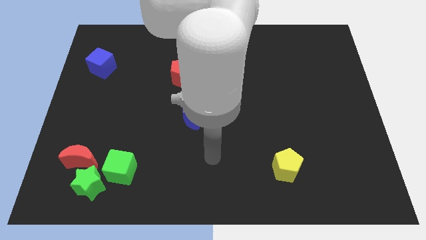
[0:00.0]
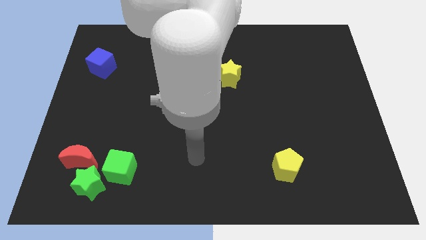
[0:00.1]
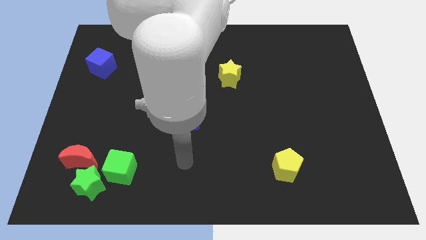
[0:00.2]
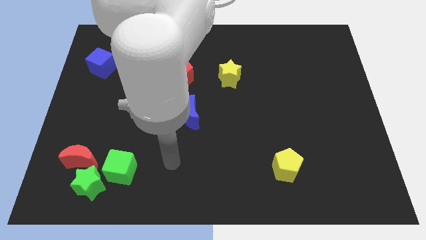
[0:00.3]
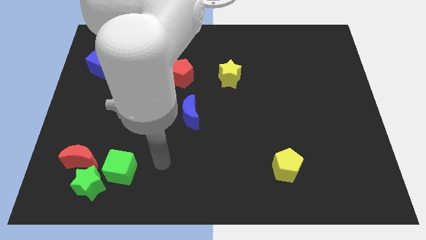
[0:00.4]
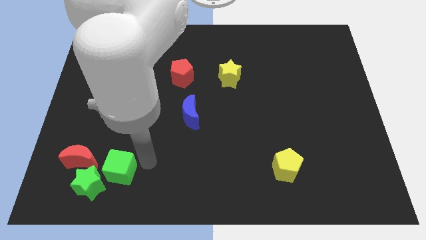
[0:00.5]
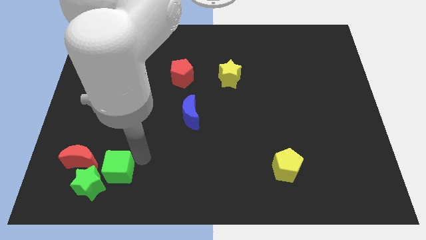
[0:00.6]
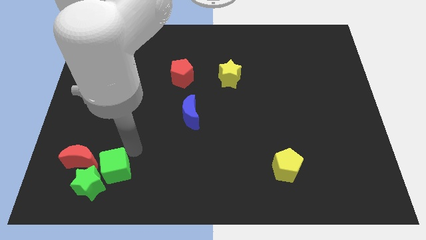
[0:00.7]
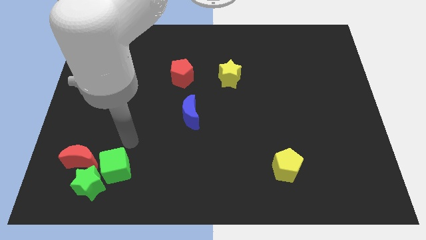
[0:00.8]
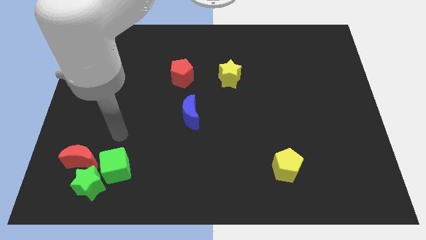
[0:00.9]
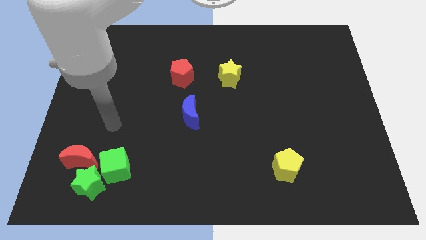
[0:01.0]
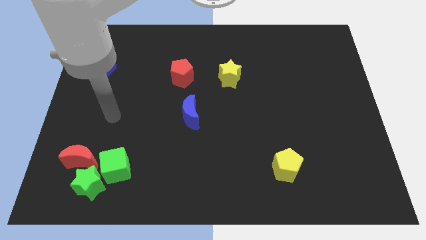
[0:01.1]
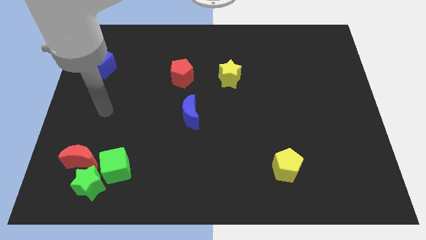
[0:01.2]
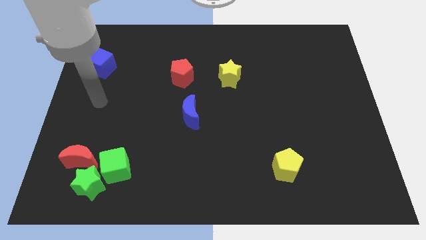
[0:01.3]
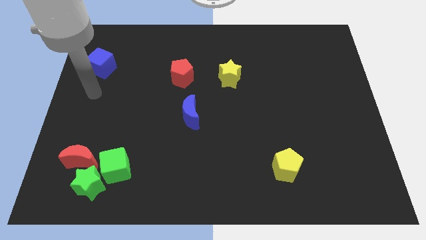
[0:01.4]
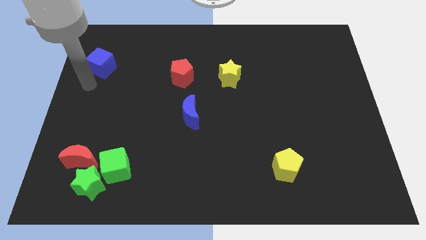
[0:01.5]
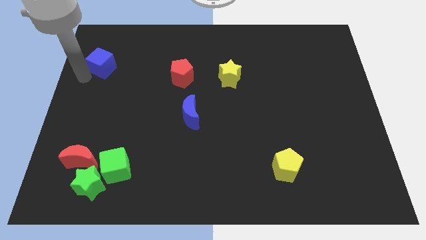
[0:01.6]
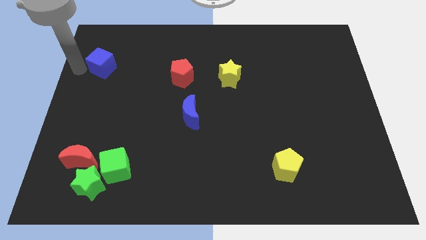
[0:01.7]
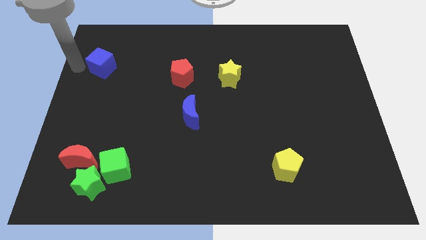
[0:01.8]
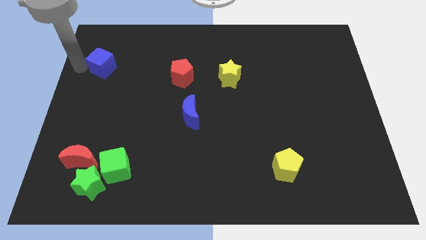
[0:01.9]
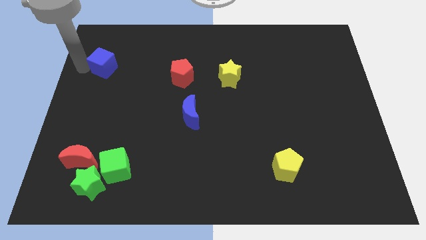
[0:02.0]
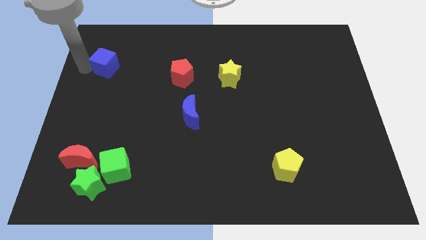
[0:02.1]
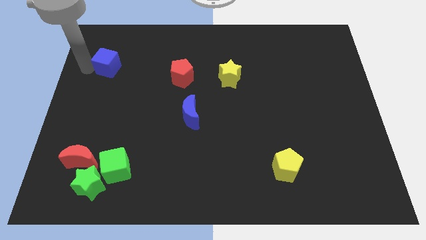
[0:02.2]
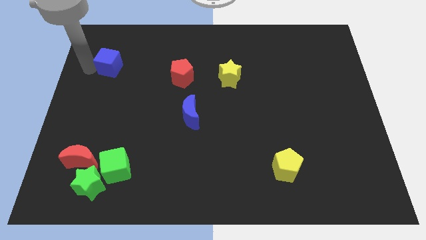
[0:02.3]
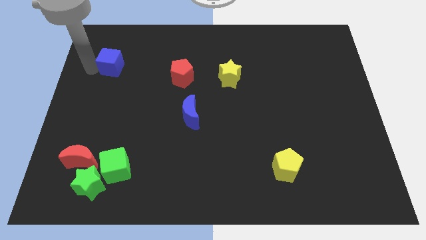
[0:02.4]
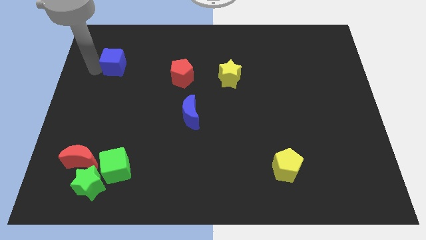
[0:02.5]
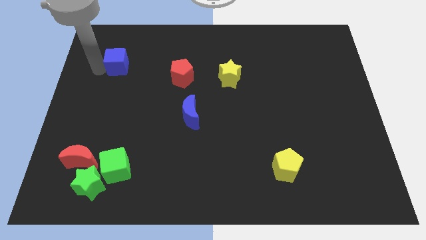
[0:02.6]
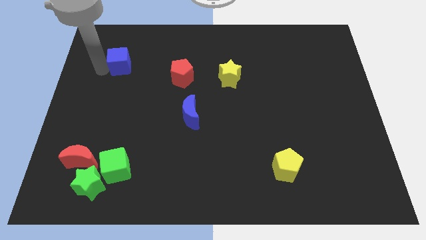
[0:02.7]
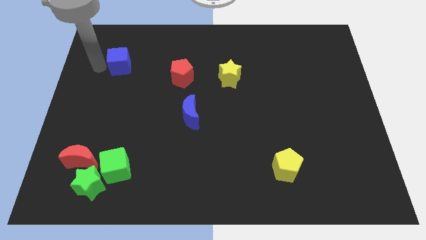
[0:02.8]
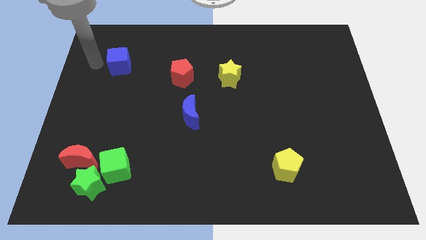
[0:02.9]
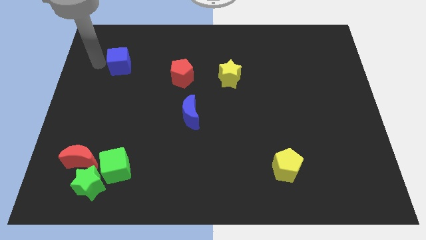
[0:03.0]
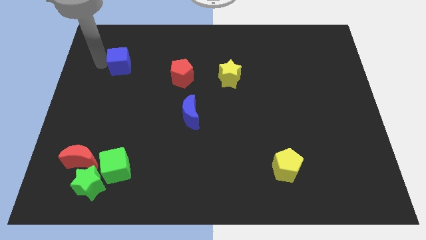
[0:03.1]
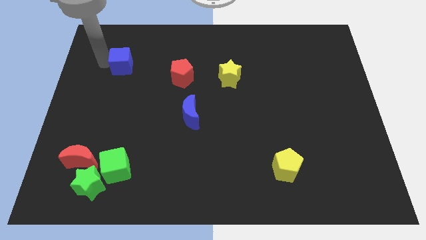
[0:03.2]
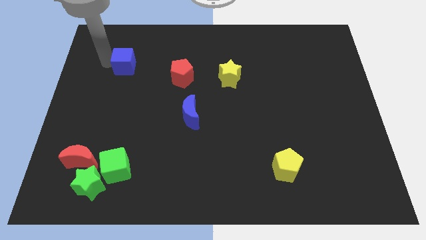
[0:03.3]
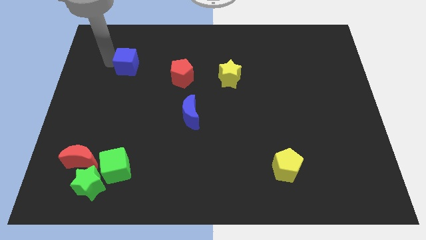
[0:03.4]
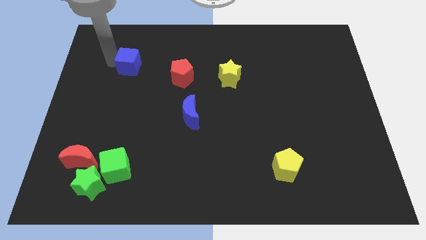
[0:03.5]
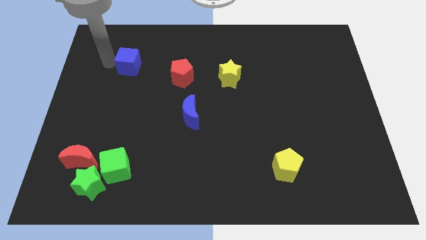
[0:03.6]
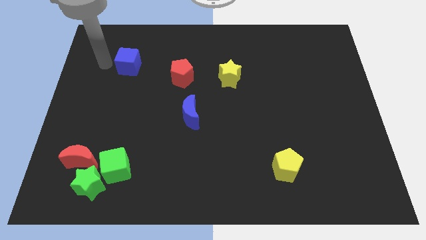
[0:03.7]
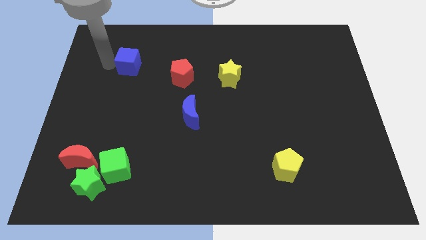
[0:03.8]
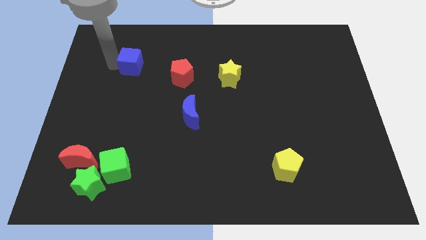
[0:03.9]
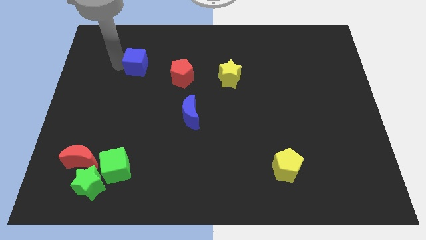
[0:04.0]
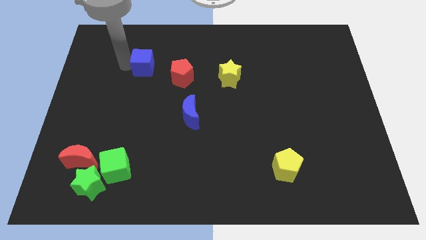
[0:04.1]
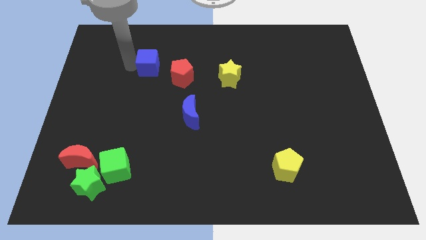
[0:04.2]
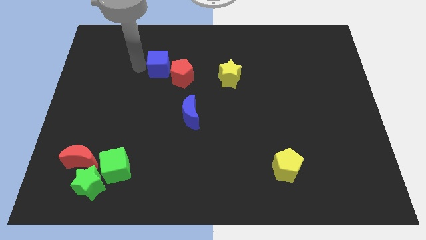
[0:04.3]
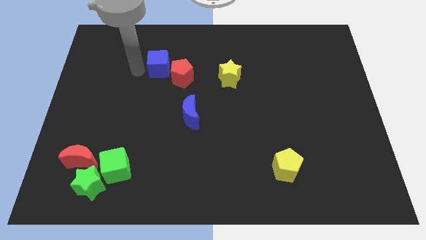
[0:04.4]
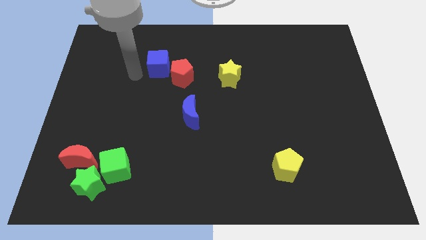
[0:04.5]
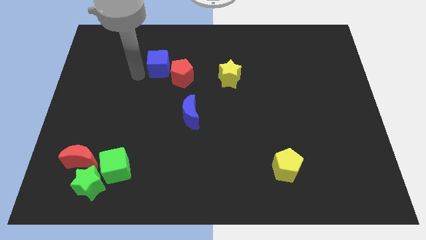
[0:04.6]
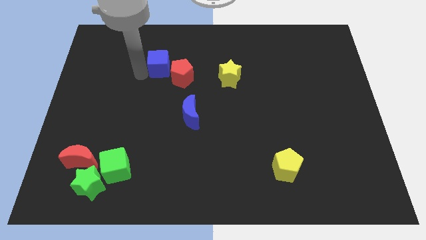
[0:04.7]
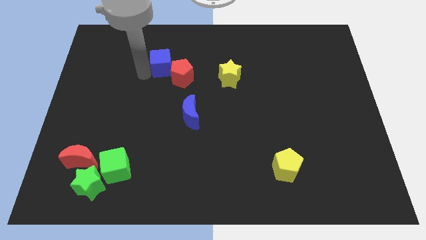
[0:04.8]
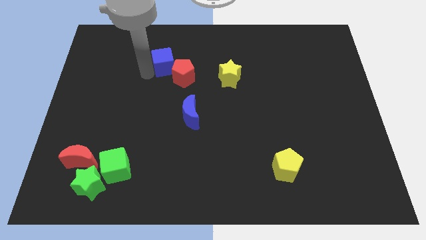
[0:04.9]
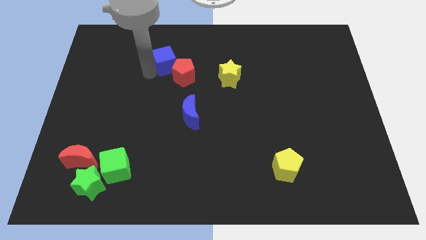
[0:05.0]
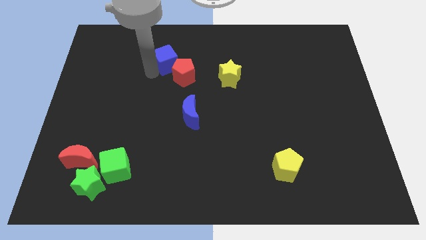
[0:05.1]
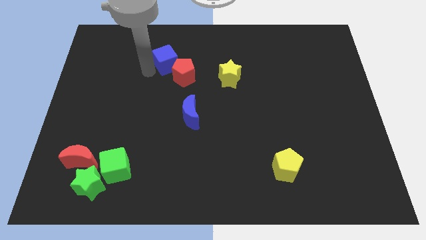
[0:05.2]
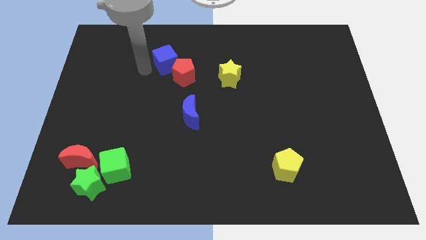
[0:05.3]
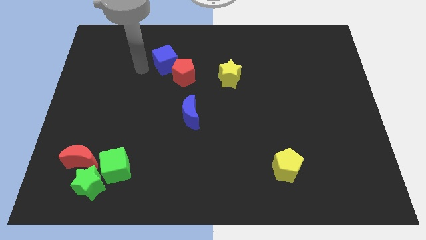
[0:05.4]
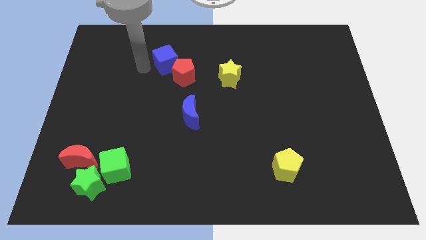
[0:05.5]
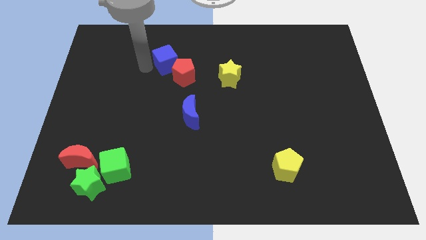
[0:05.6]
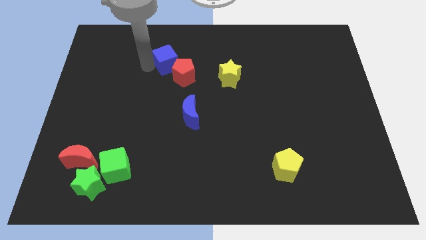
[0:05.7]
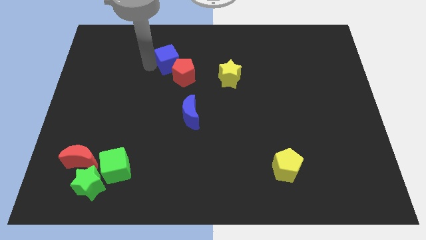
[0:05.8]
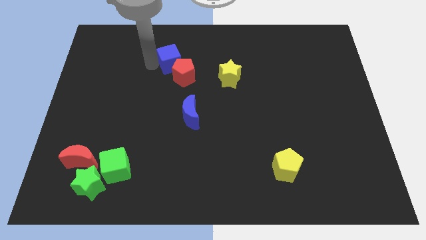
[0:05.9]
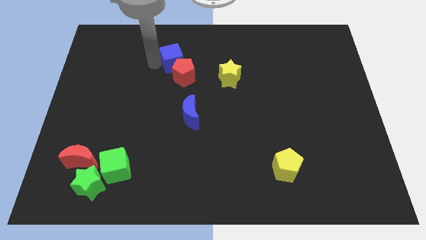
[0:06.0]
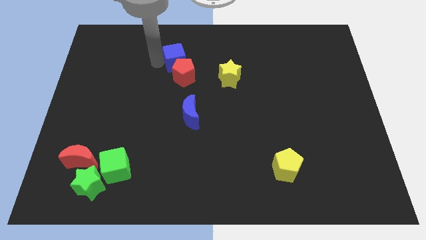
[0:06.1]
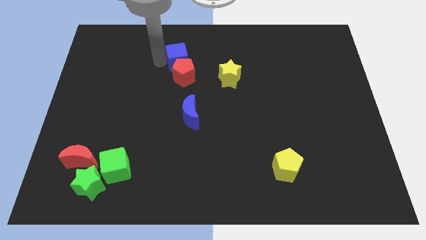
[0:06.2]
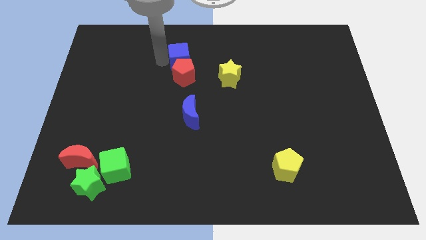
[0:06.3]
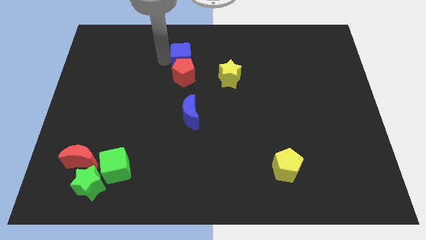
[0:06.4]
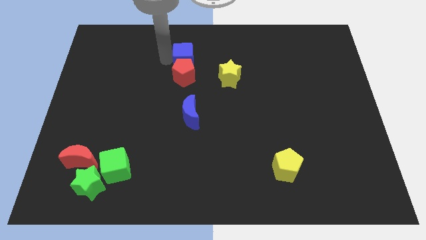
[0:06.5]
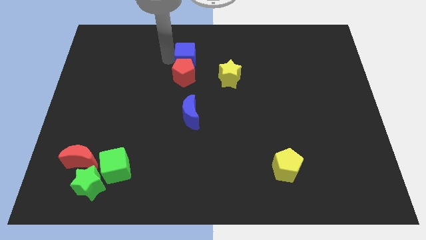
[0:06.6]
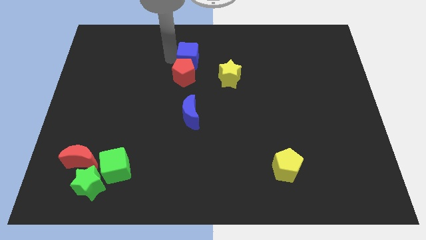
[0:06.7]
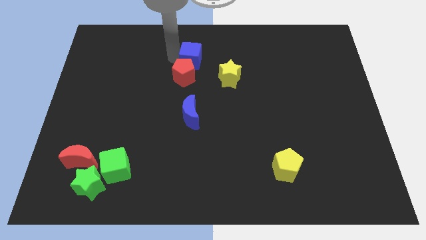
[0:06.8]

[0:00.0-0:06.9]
slide the blue cube to the top left side of the yellow star
